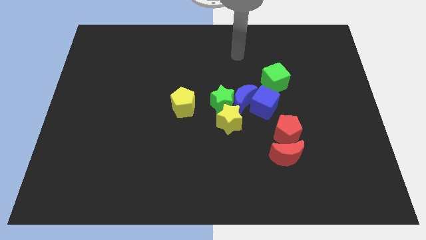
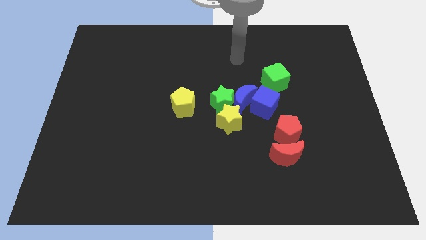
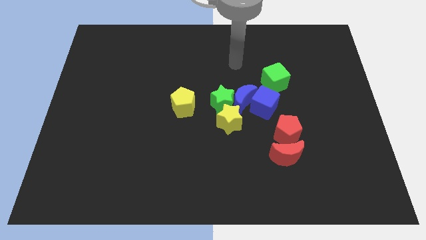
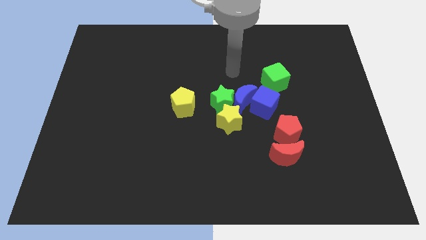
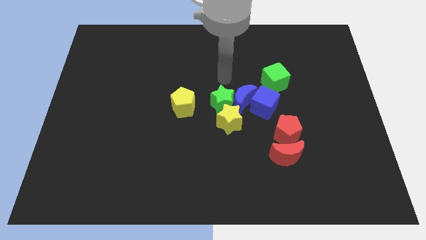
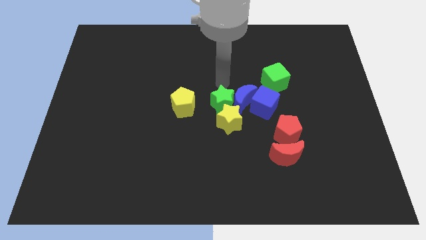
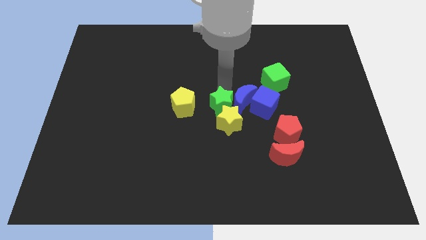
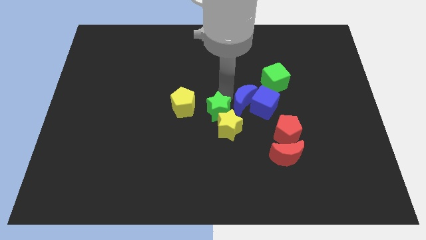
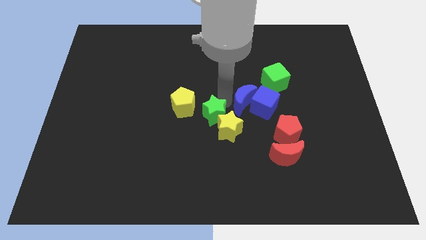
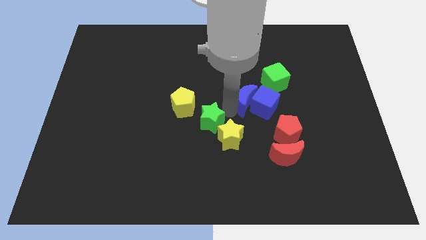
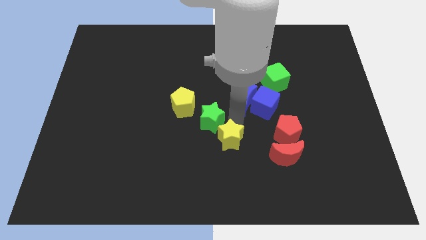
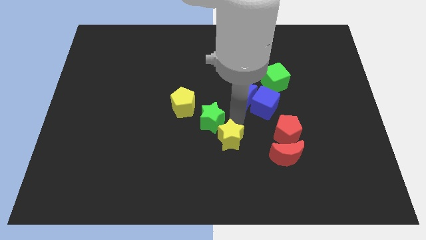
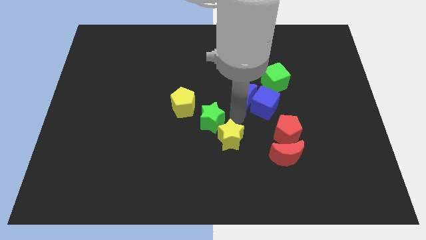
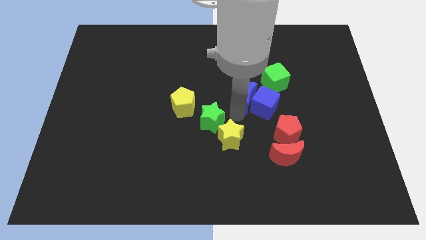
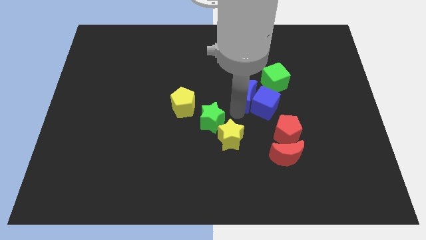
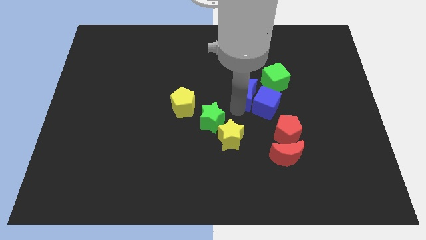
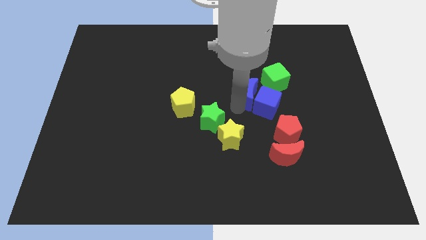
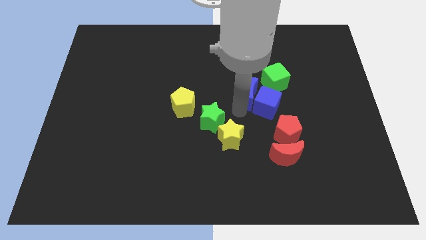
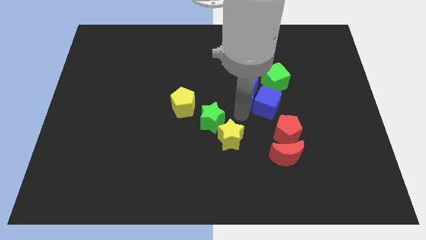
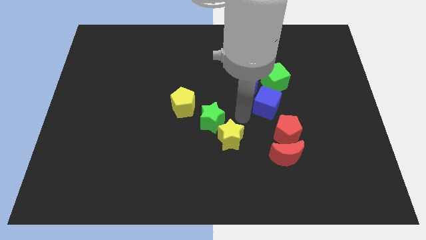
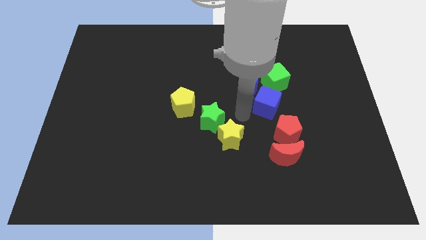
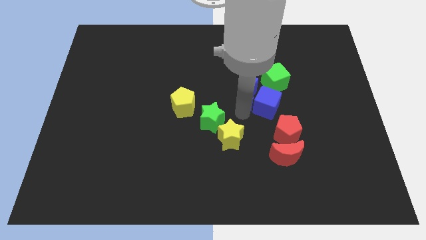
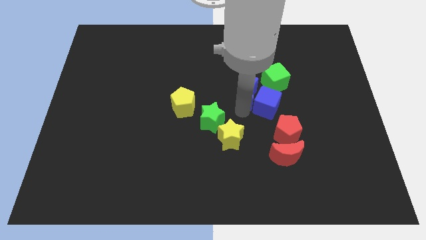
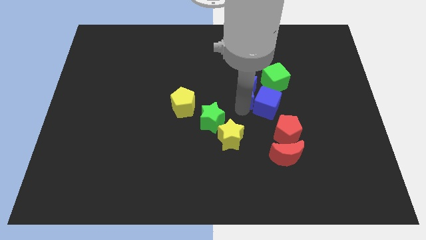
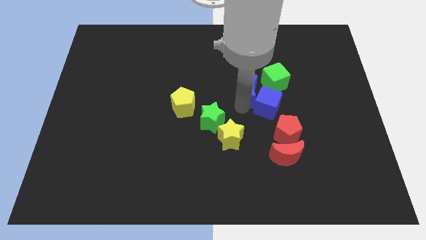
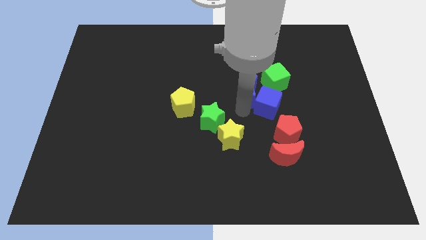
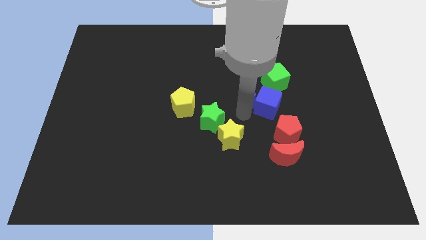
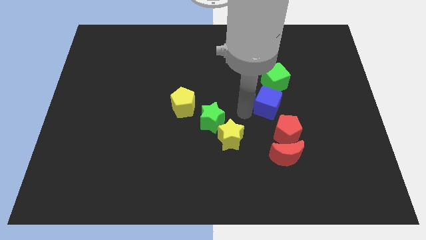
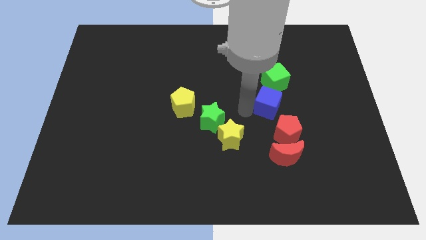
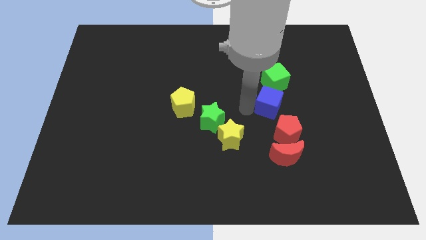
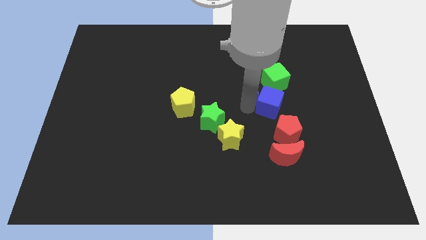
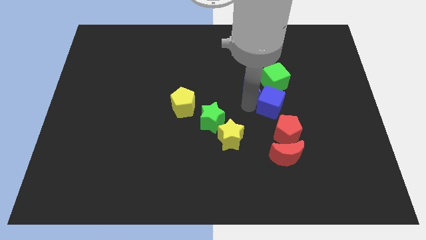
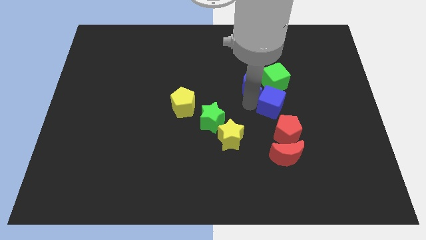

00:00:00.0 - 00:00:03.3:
move the blue moon away from the green star, blue cube, and yellow star

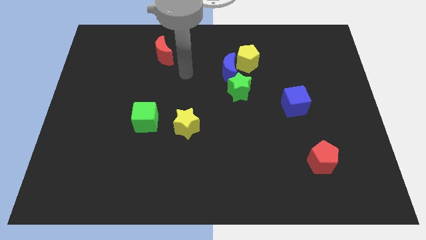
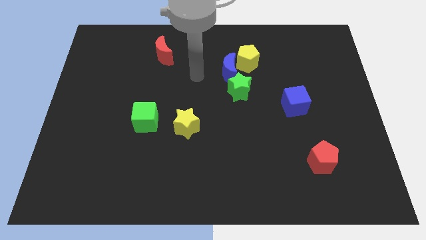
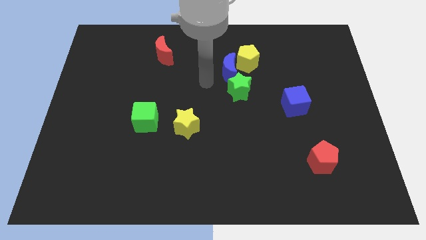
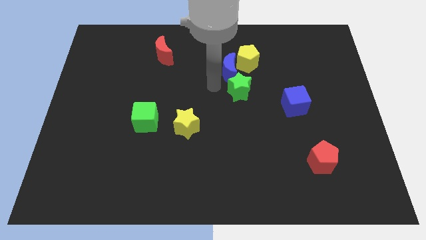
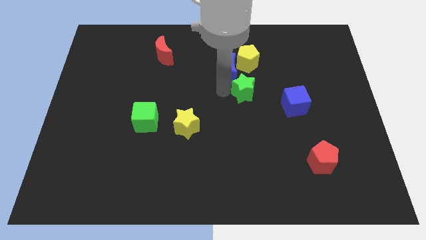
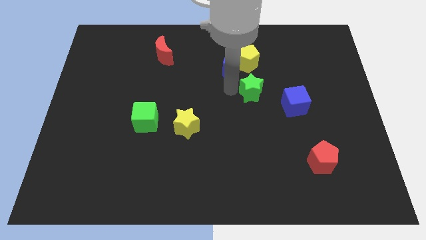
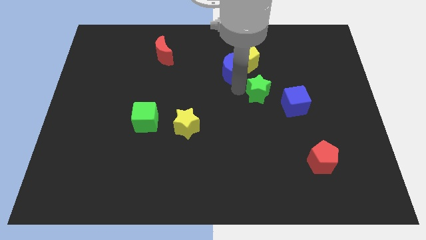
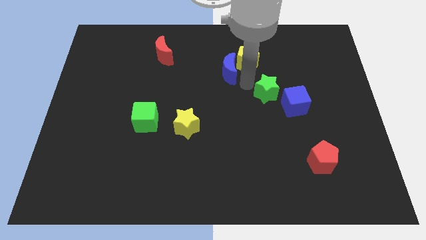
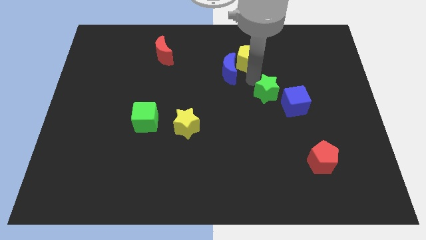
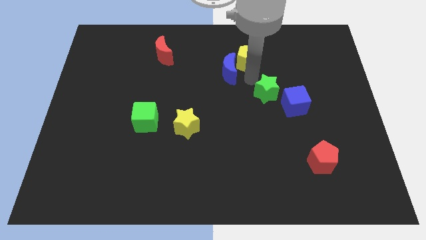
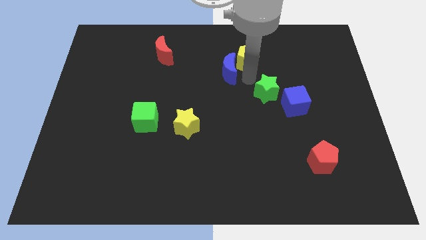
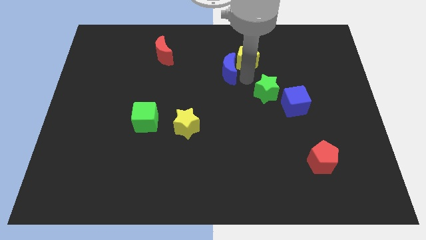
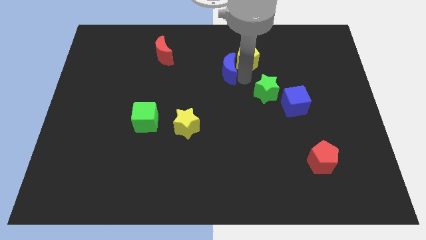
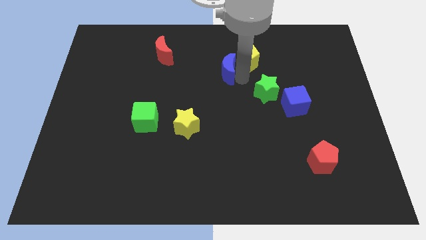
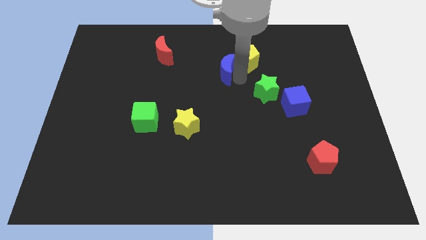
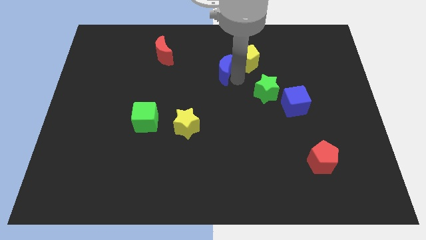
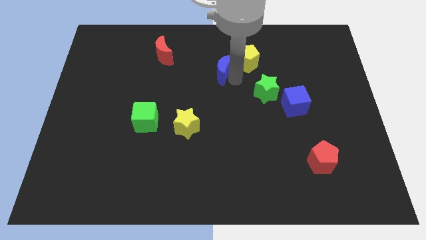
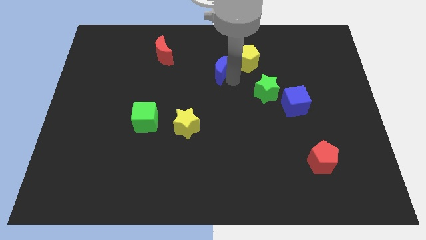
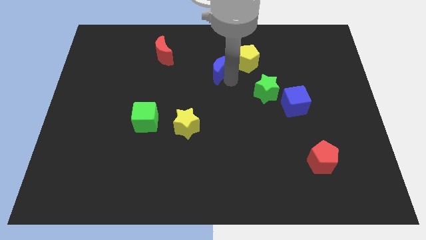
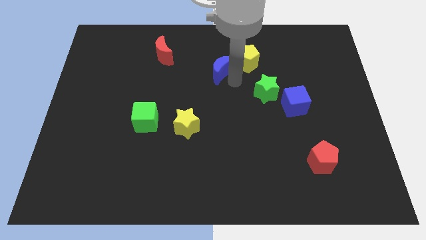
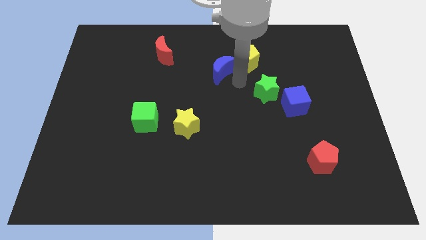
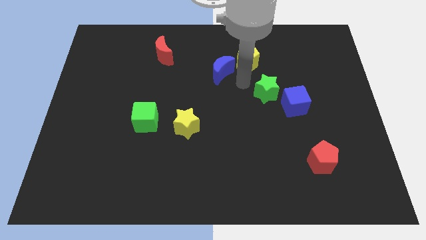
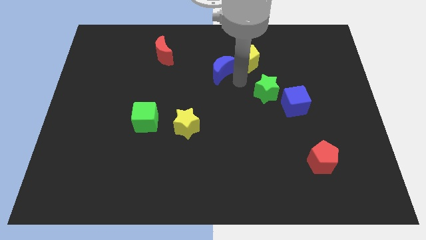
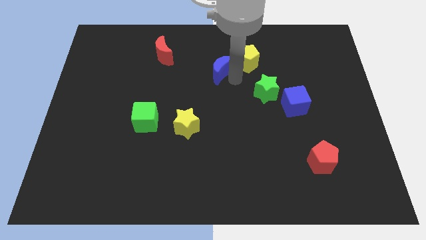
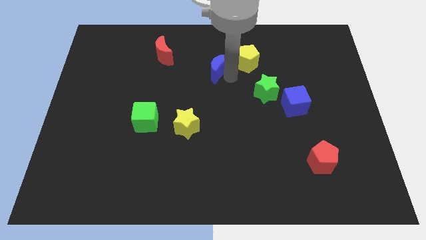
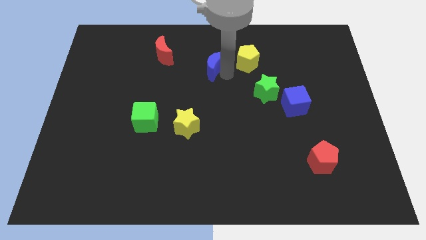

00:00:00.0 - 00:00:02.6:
move the blue moon away from the yellow pentagon and green star

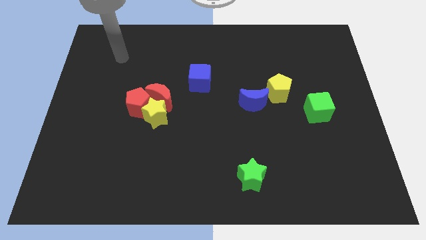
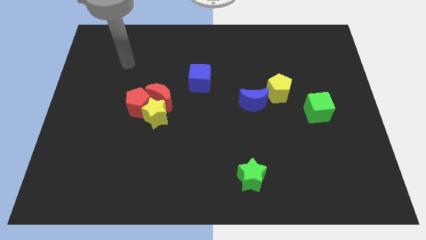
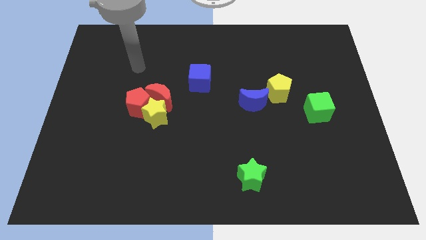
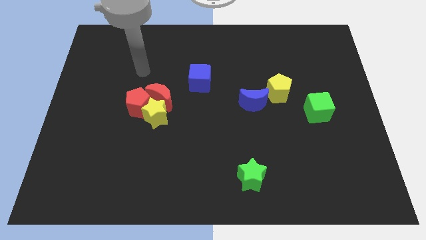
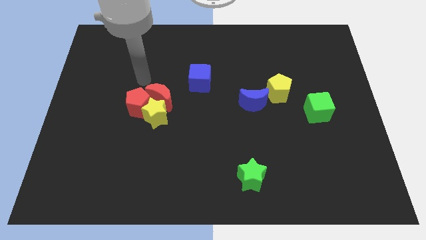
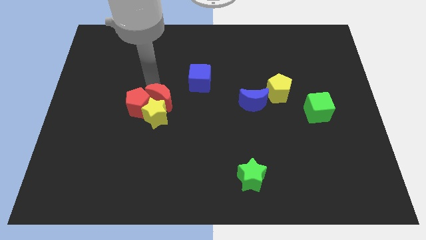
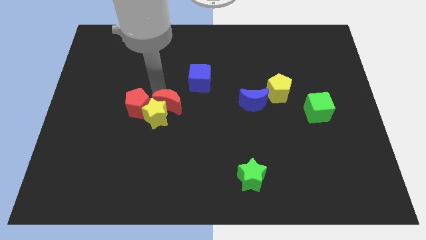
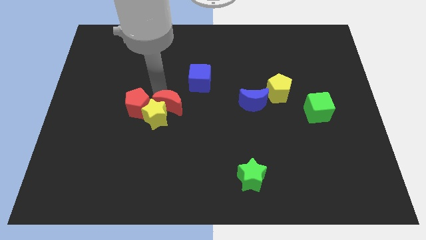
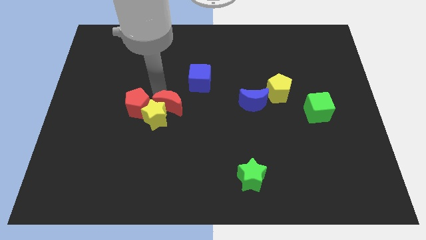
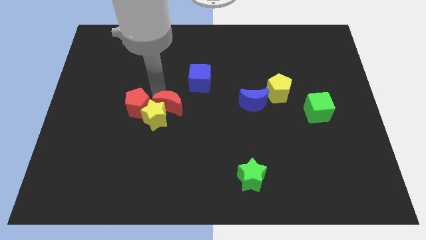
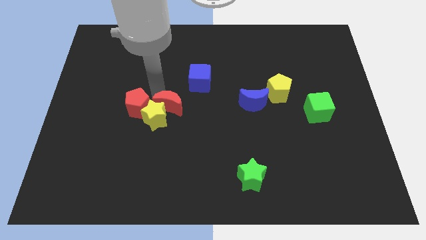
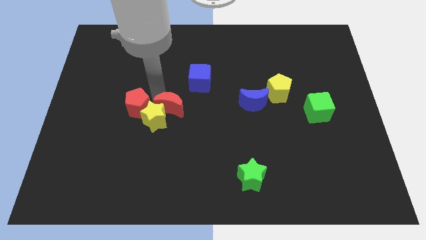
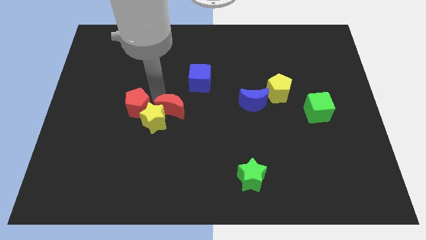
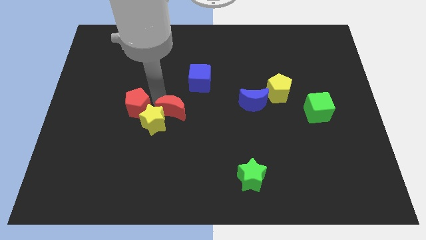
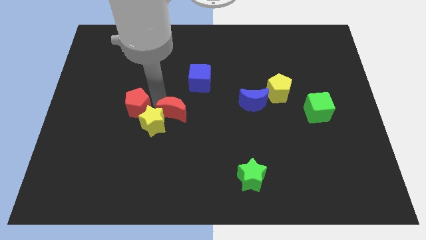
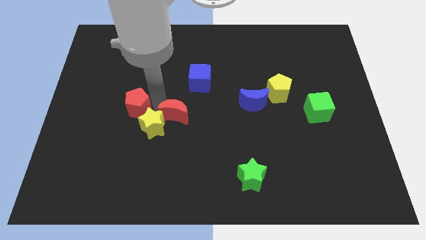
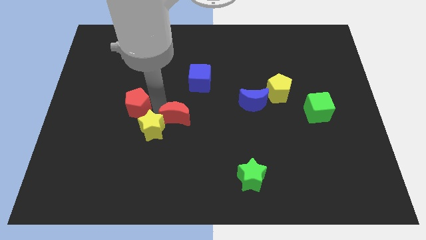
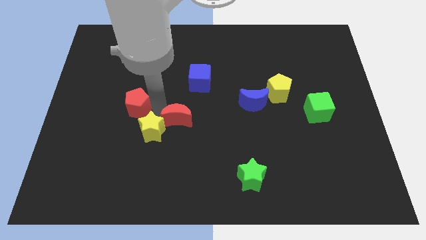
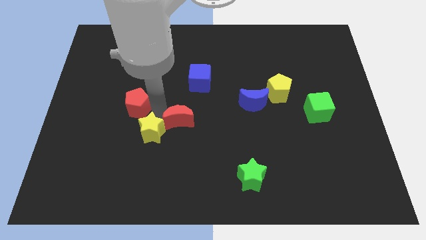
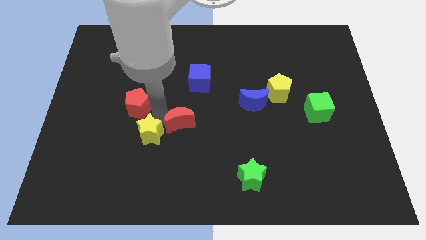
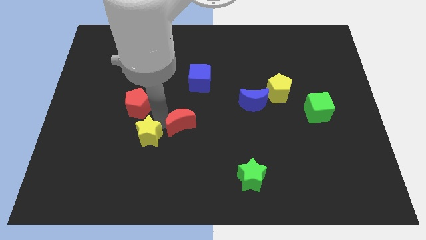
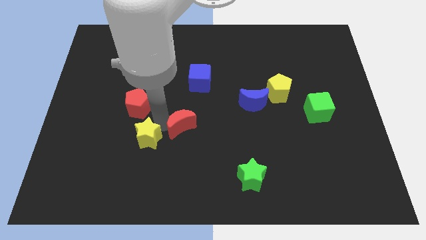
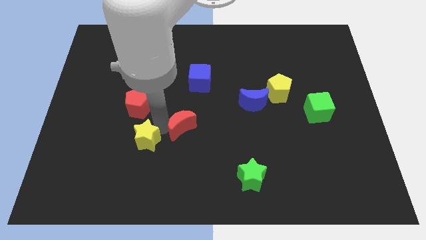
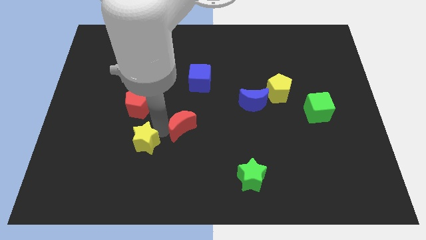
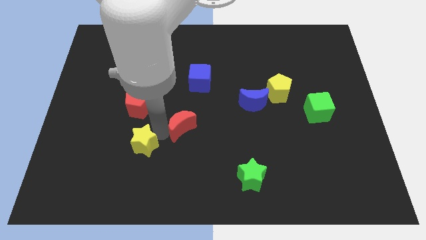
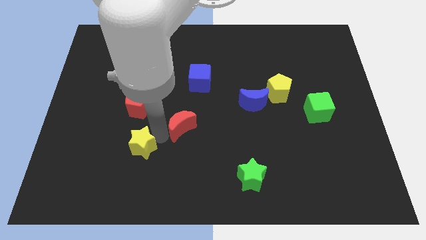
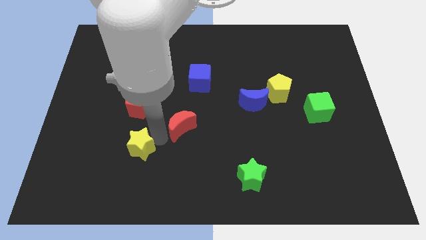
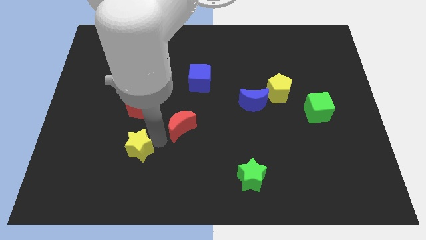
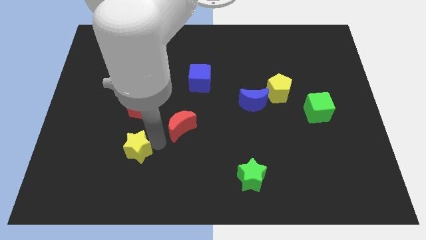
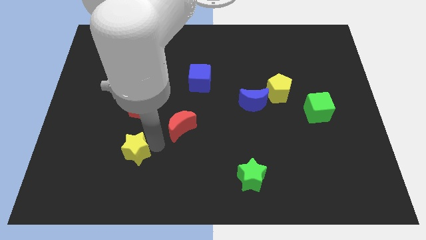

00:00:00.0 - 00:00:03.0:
pull the yellow star apart from the red moon and red pentagon

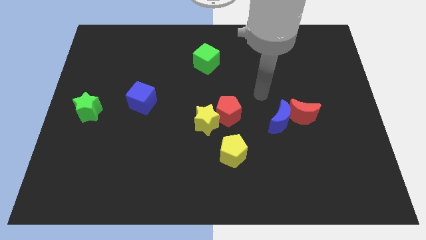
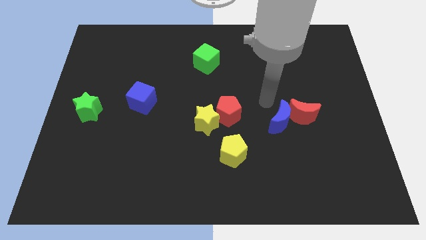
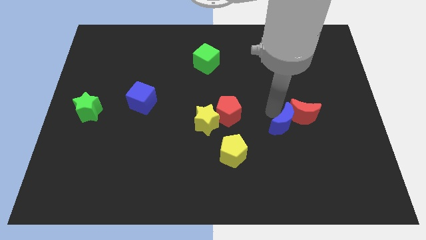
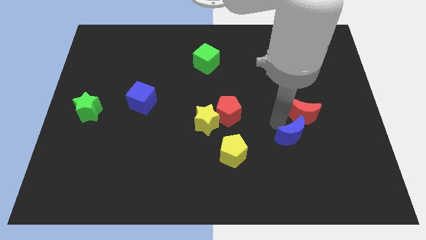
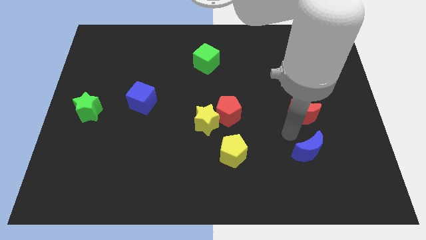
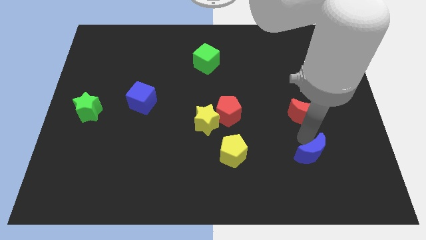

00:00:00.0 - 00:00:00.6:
move the red moon away from the blue moon
